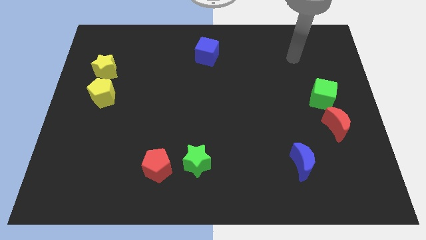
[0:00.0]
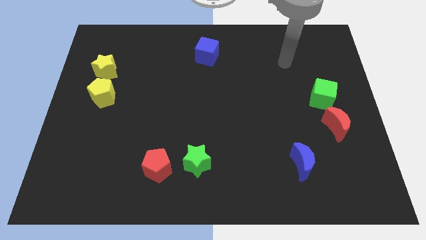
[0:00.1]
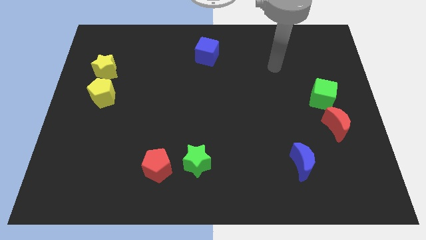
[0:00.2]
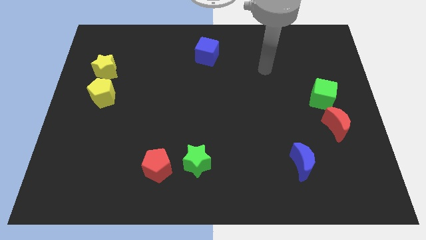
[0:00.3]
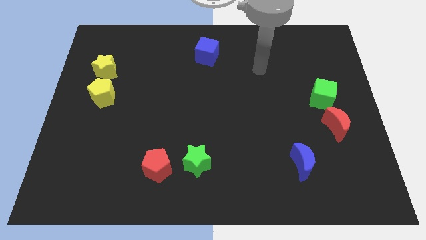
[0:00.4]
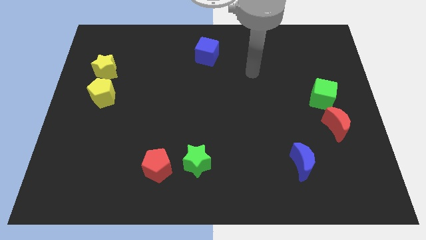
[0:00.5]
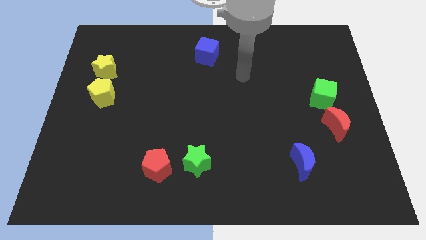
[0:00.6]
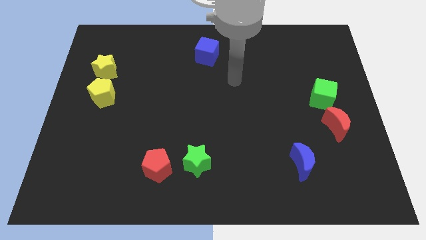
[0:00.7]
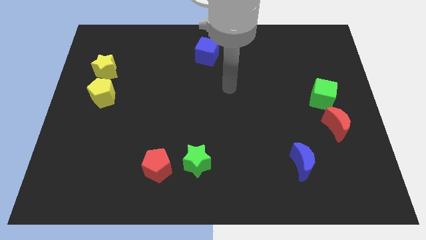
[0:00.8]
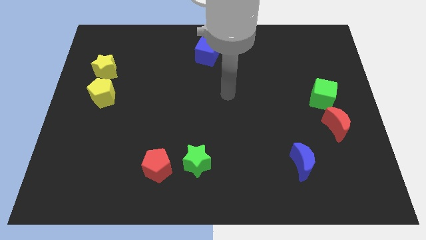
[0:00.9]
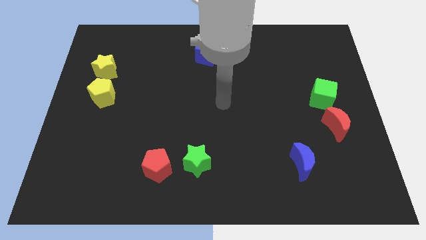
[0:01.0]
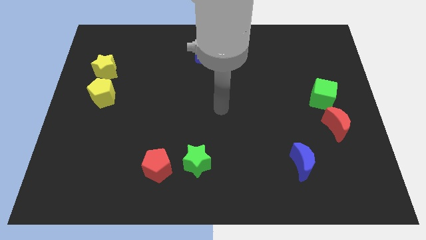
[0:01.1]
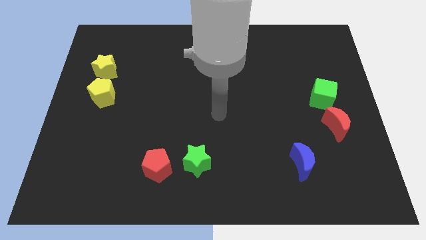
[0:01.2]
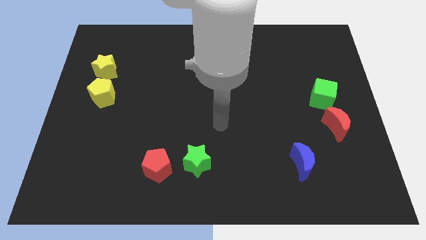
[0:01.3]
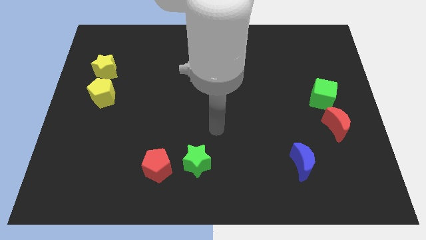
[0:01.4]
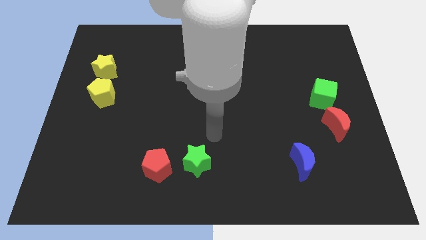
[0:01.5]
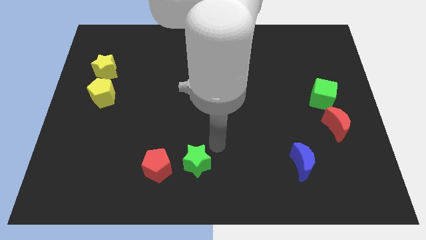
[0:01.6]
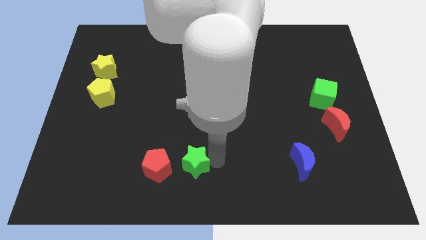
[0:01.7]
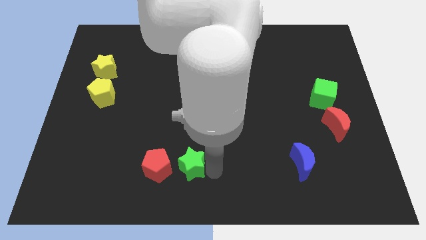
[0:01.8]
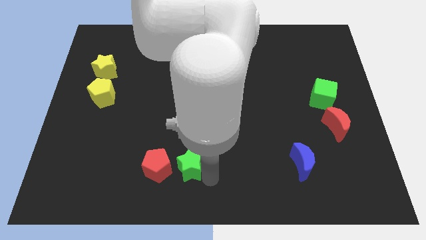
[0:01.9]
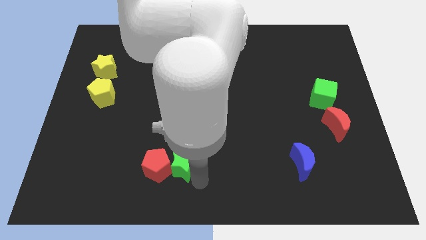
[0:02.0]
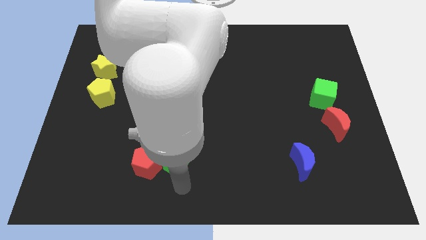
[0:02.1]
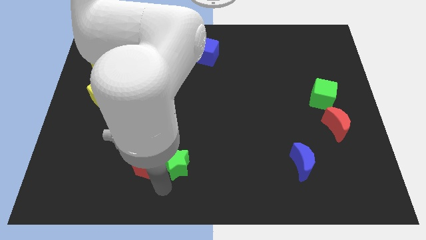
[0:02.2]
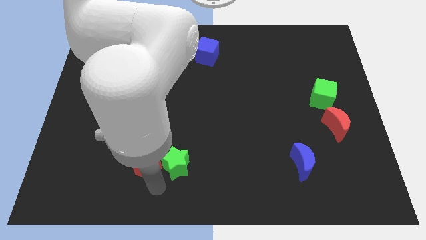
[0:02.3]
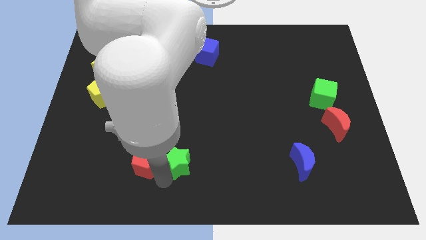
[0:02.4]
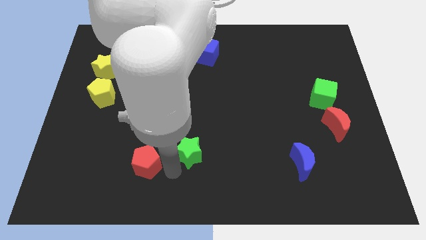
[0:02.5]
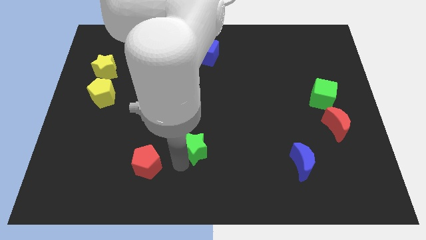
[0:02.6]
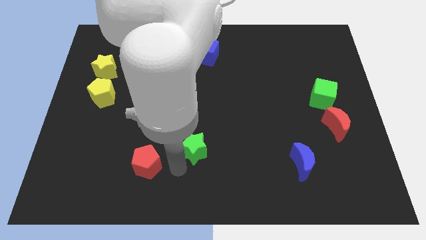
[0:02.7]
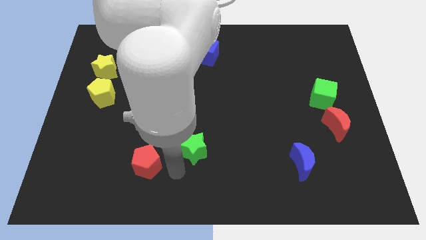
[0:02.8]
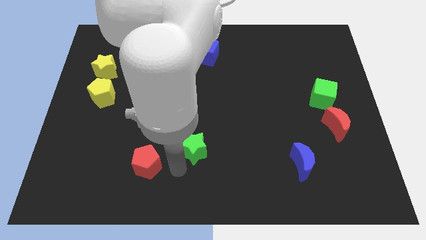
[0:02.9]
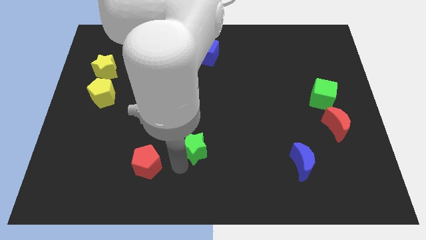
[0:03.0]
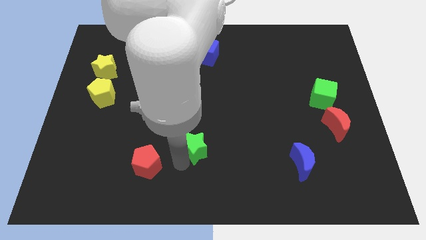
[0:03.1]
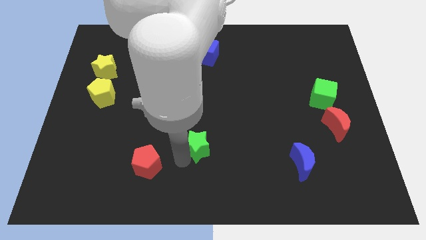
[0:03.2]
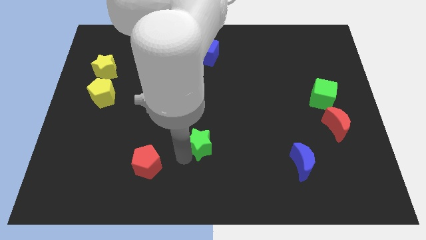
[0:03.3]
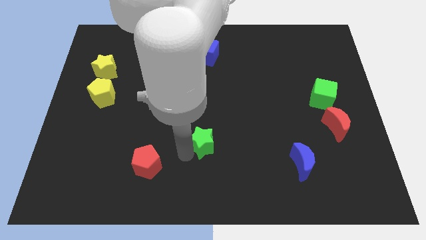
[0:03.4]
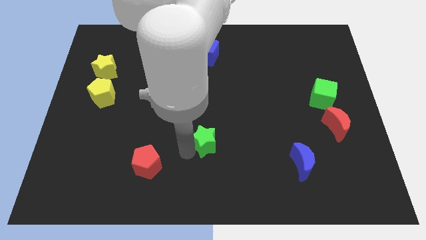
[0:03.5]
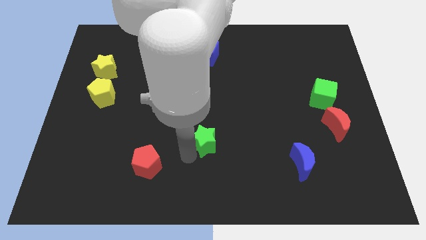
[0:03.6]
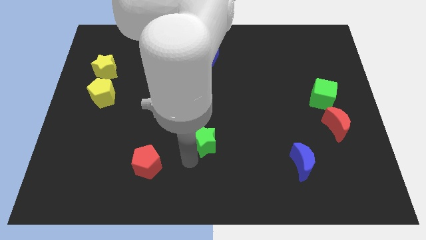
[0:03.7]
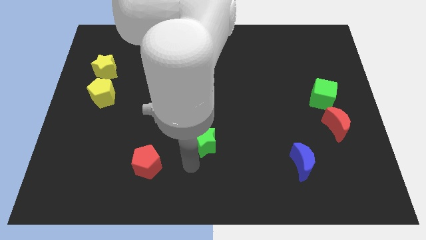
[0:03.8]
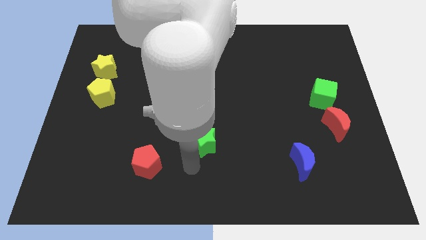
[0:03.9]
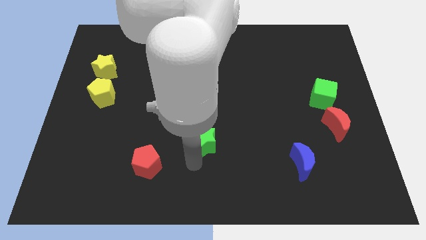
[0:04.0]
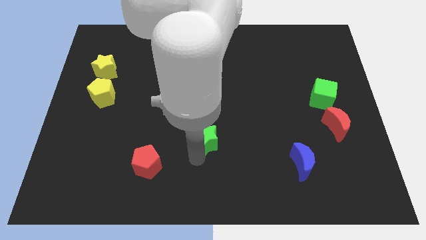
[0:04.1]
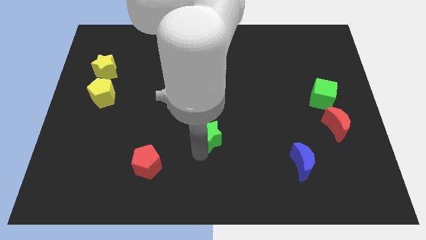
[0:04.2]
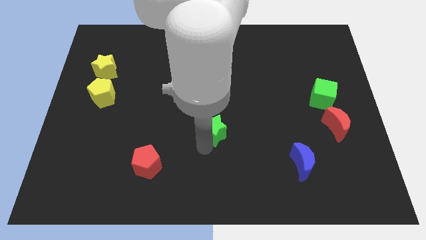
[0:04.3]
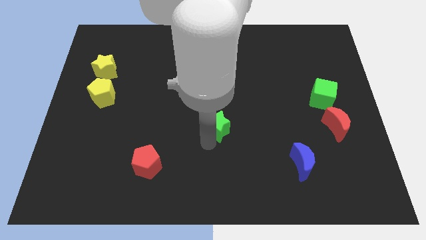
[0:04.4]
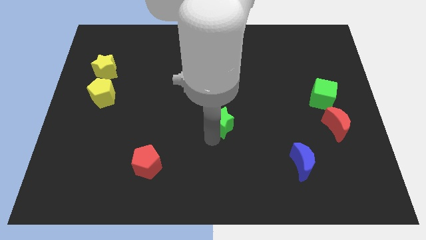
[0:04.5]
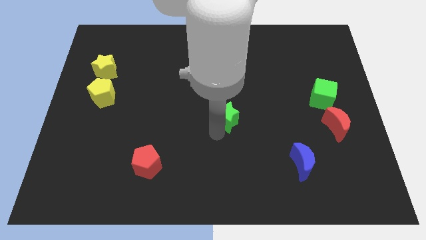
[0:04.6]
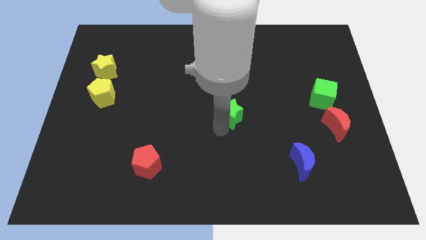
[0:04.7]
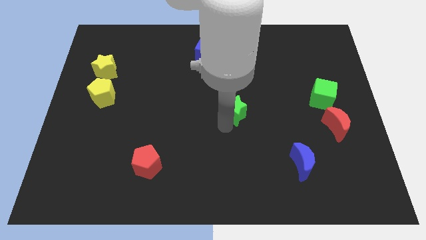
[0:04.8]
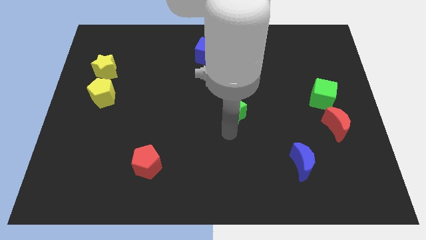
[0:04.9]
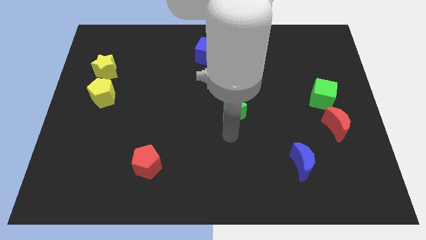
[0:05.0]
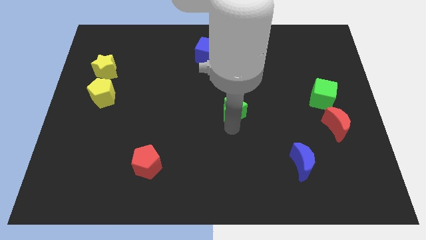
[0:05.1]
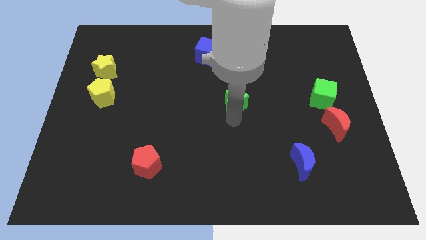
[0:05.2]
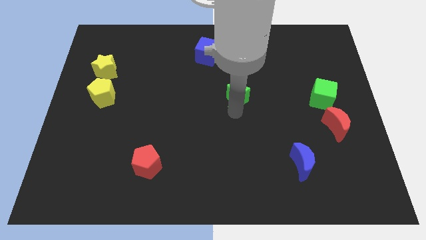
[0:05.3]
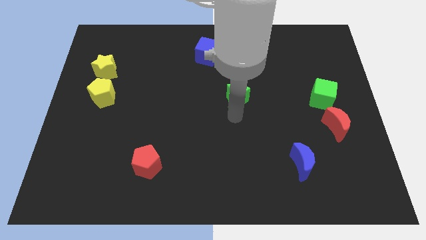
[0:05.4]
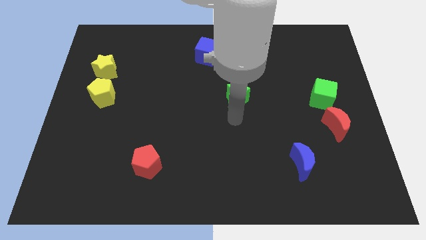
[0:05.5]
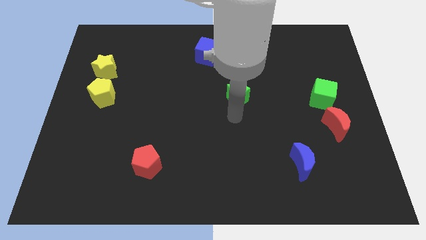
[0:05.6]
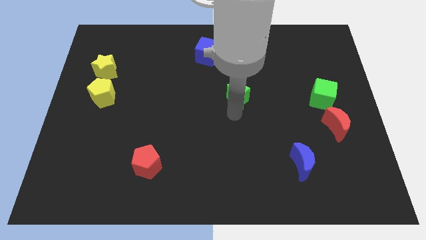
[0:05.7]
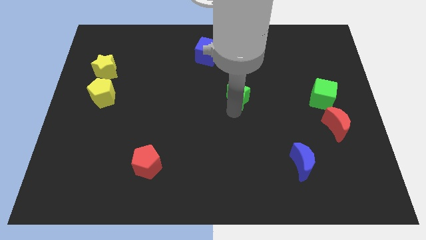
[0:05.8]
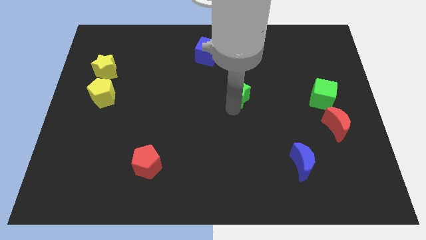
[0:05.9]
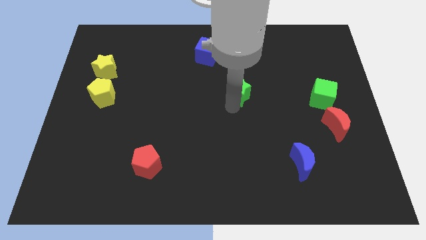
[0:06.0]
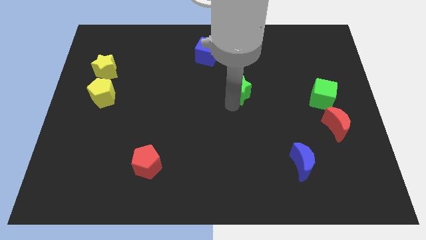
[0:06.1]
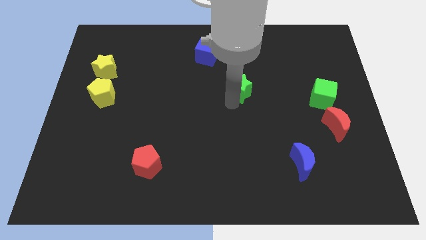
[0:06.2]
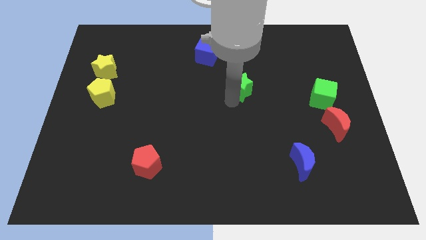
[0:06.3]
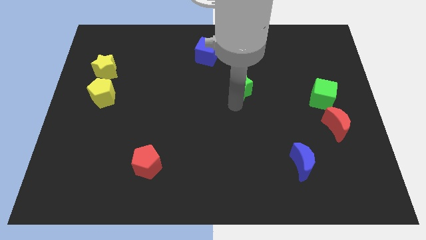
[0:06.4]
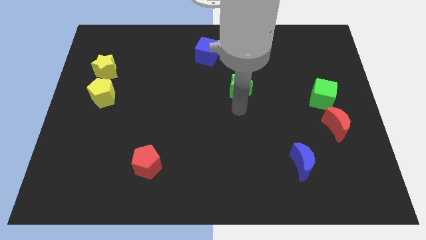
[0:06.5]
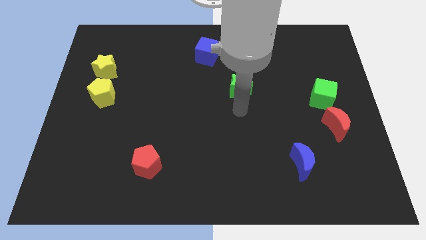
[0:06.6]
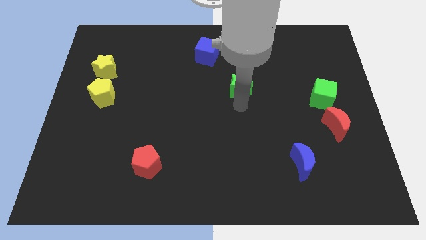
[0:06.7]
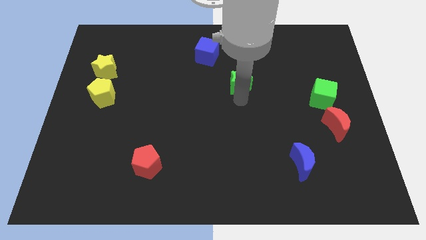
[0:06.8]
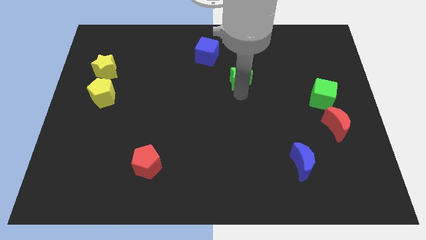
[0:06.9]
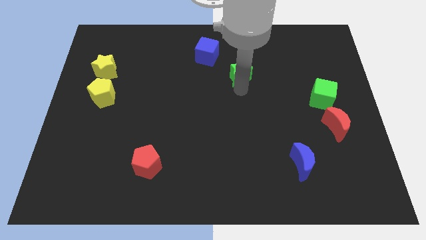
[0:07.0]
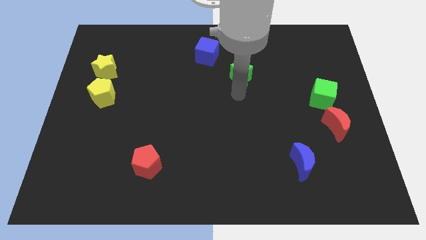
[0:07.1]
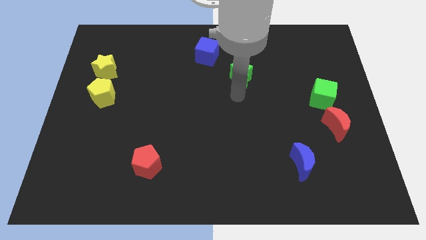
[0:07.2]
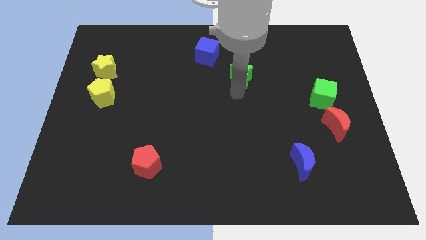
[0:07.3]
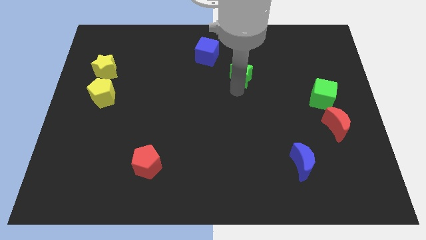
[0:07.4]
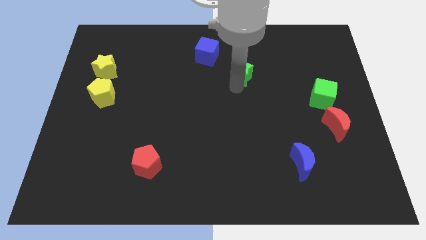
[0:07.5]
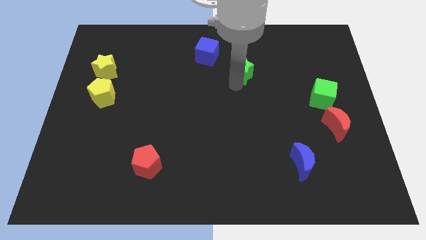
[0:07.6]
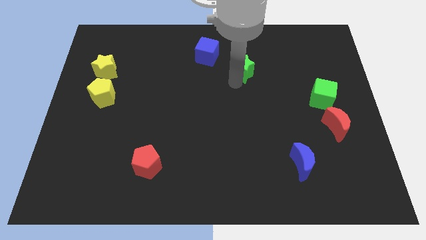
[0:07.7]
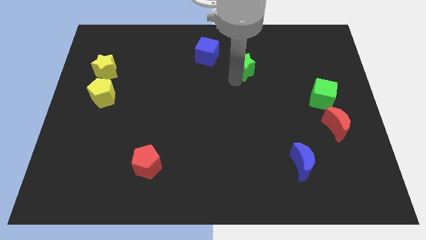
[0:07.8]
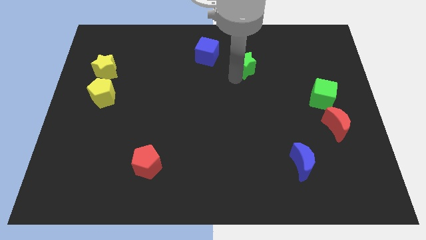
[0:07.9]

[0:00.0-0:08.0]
put the green star just right of the blue cube
